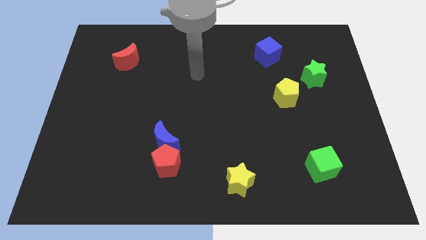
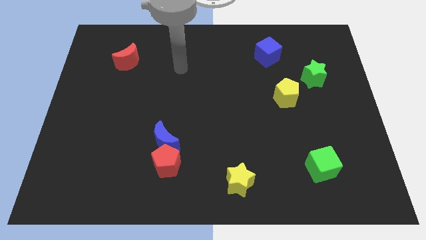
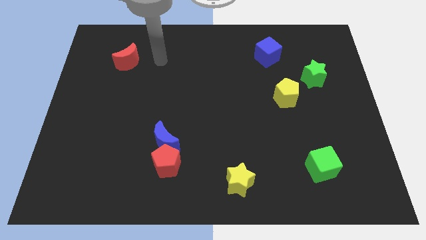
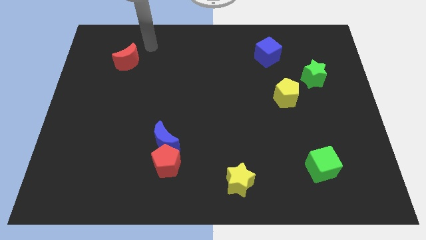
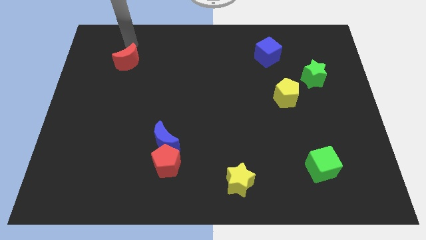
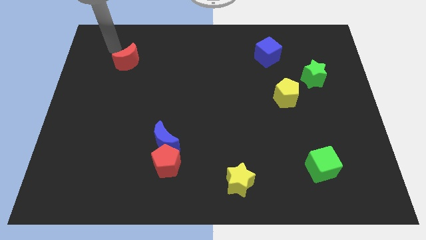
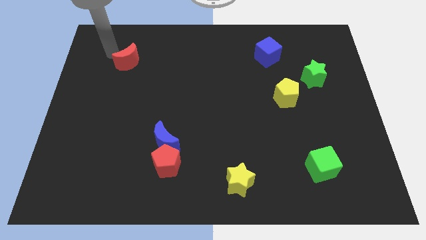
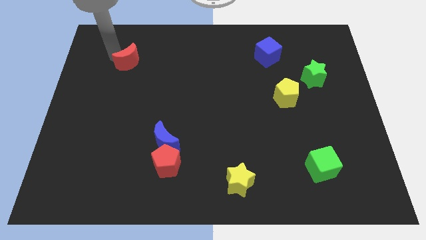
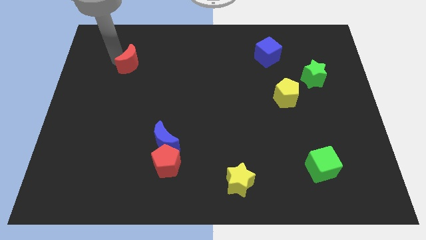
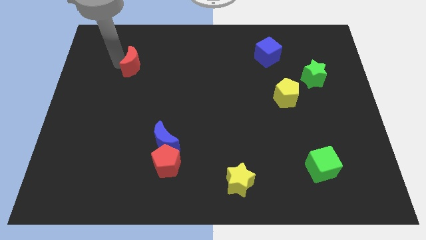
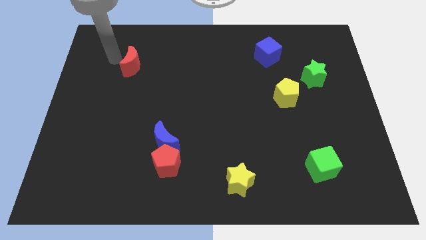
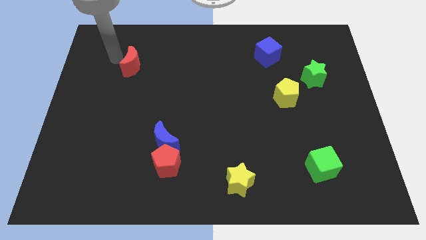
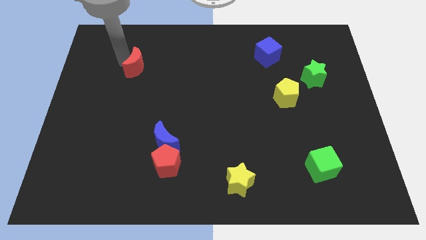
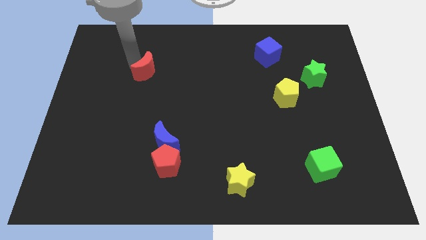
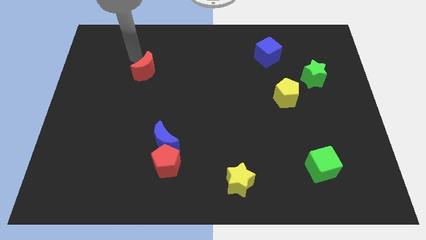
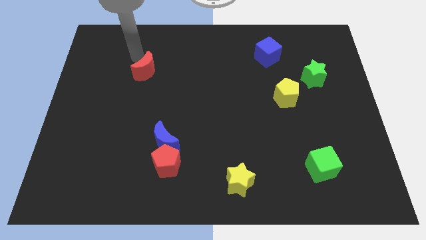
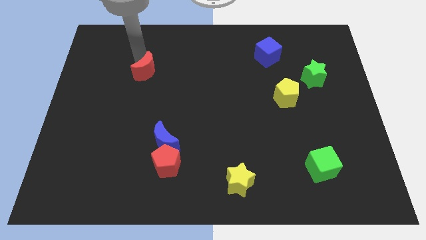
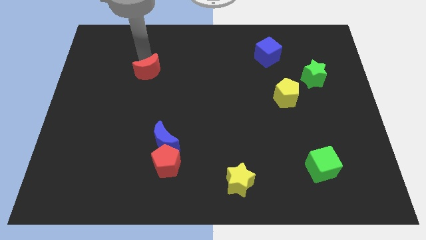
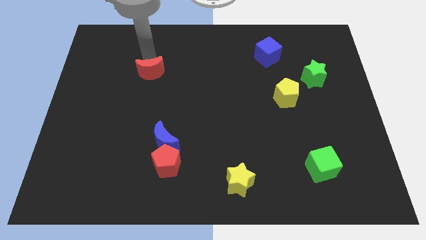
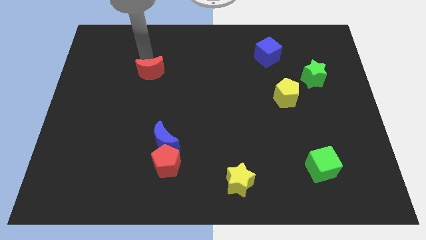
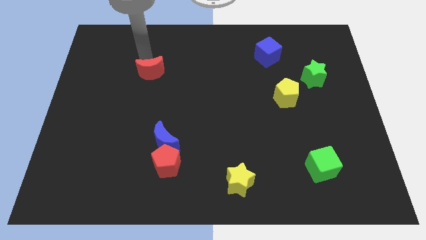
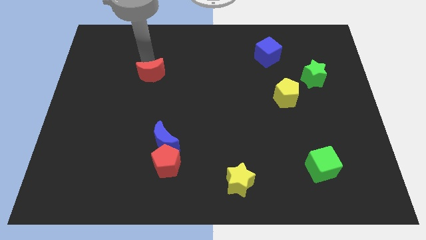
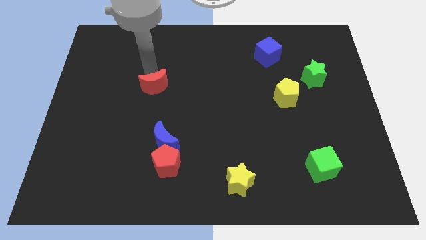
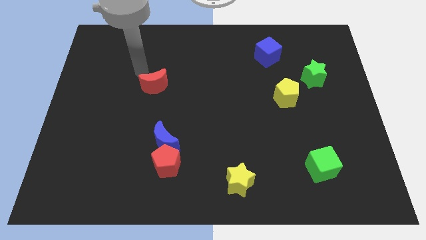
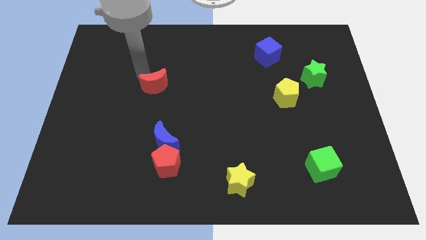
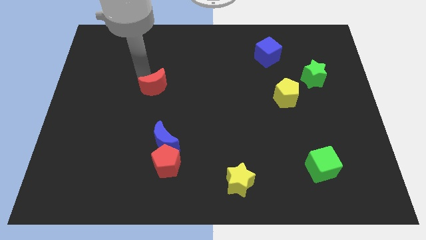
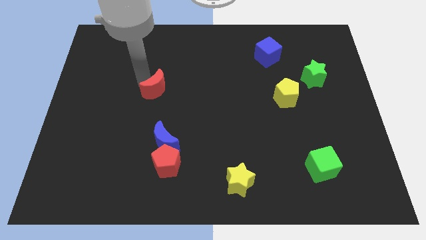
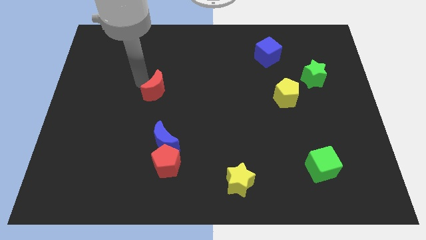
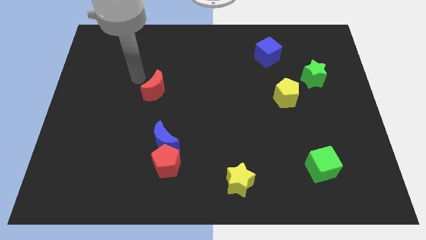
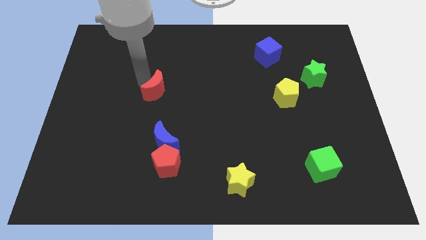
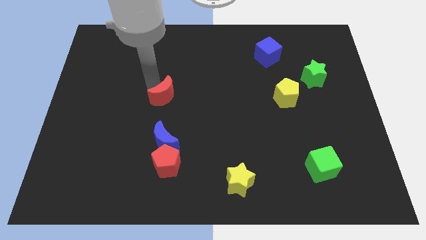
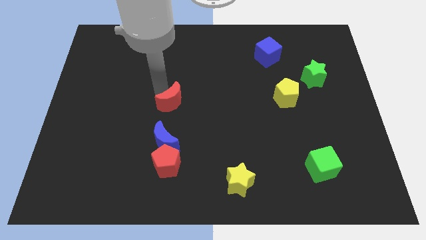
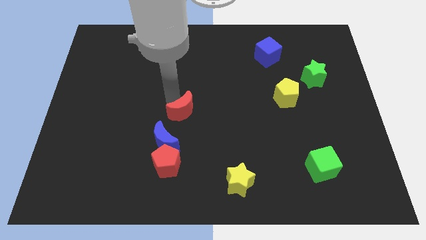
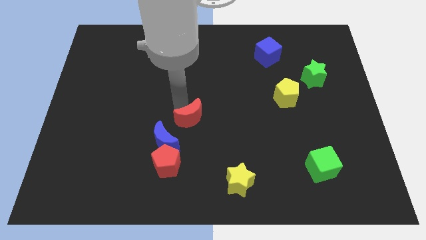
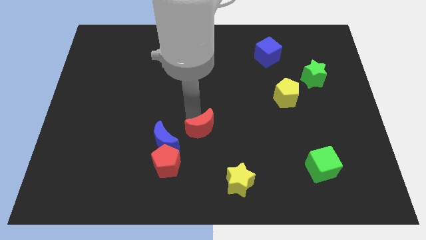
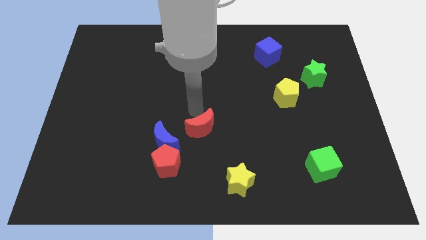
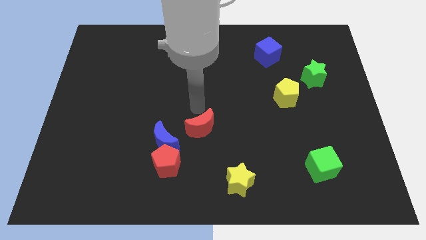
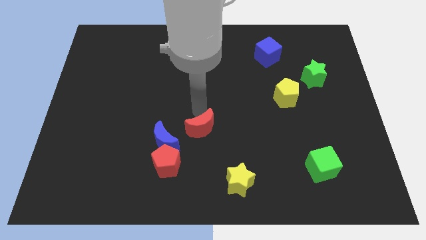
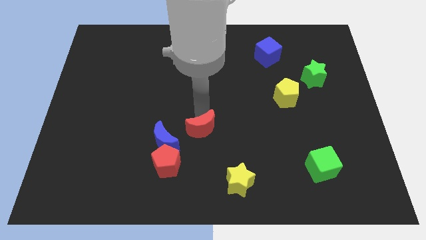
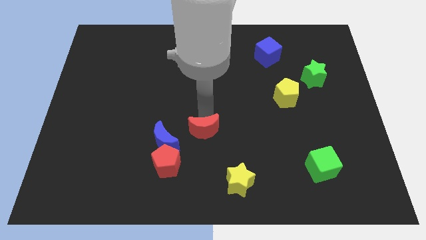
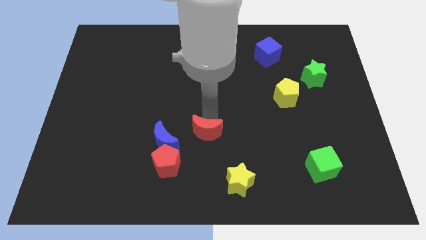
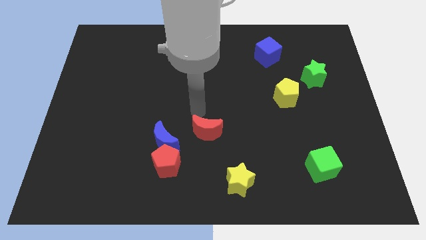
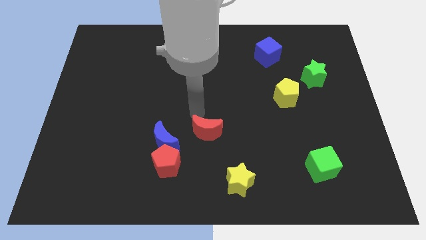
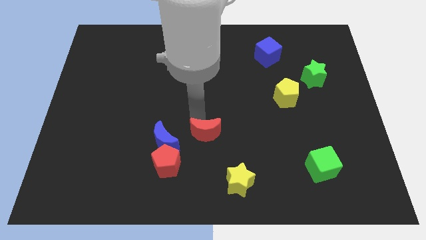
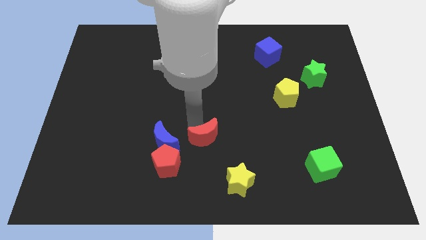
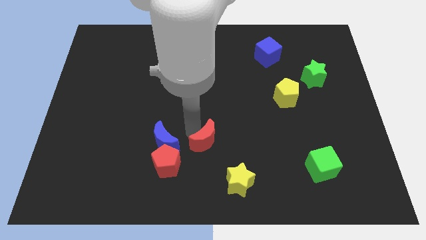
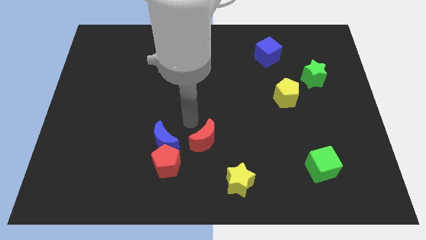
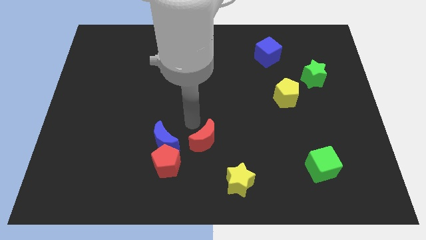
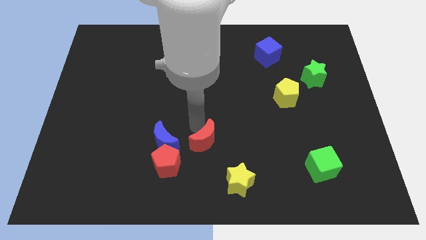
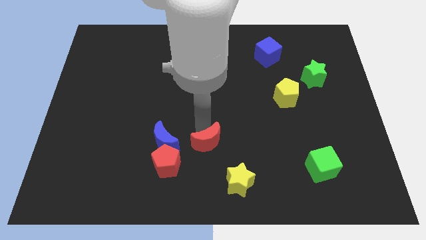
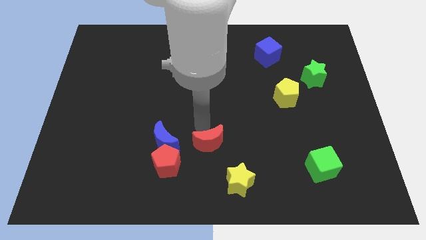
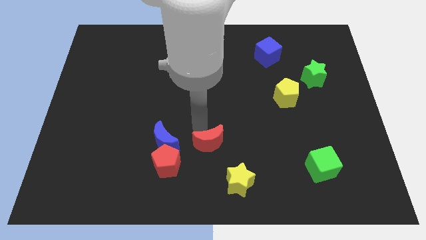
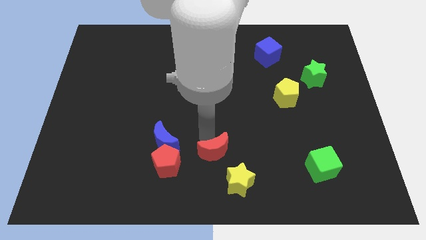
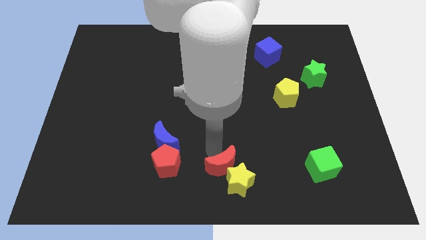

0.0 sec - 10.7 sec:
push the red moon to the yellow star

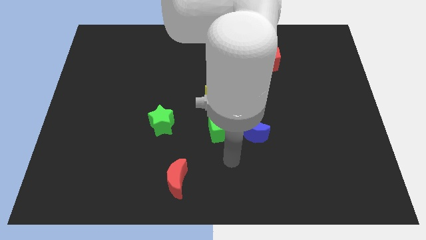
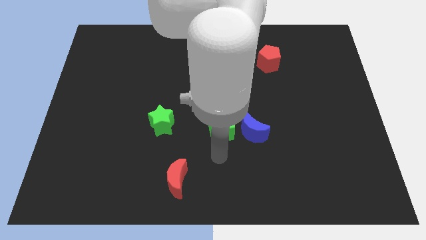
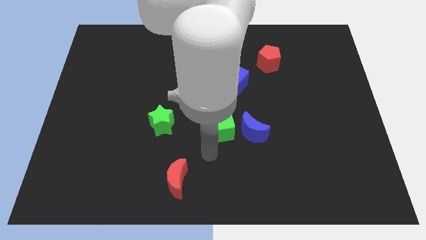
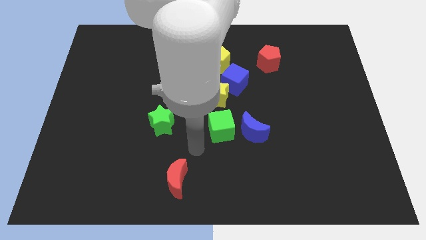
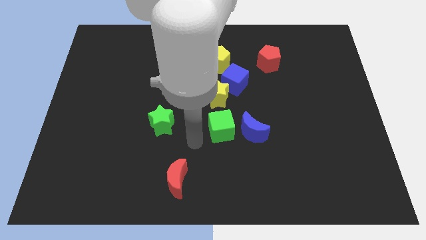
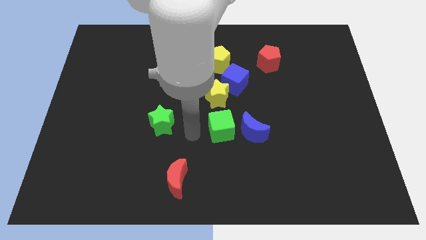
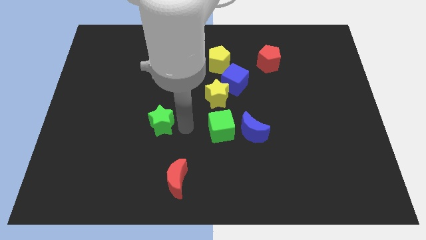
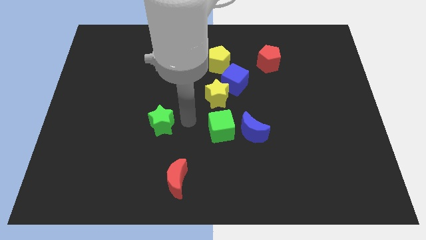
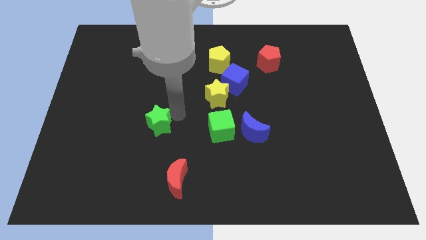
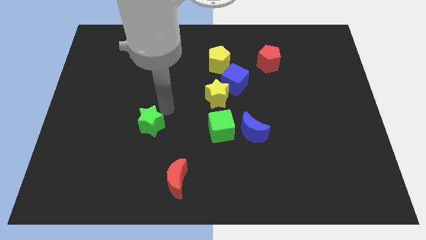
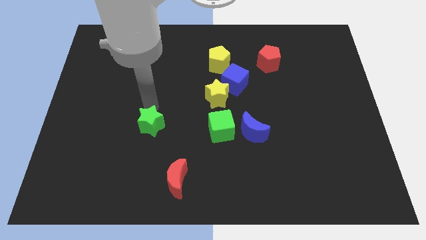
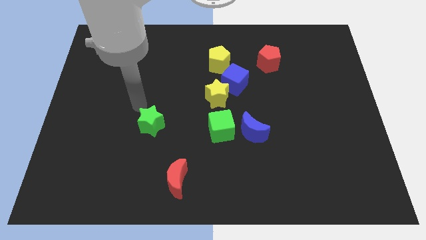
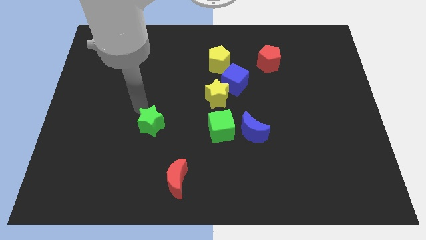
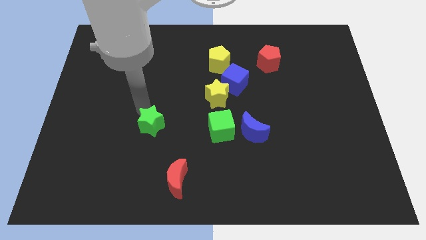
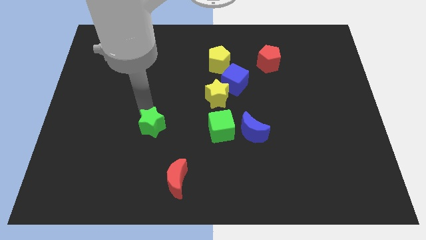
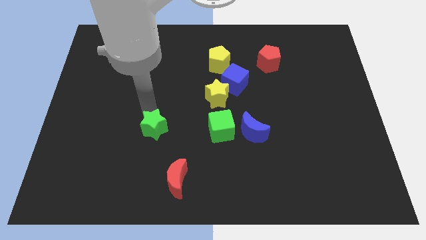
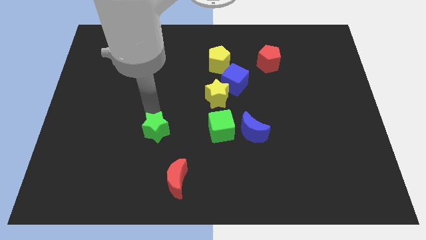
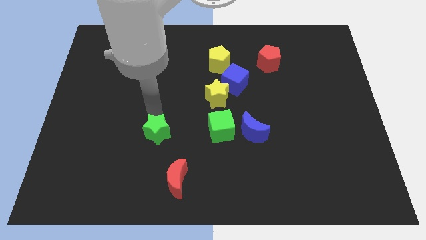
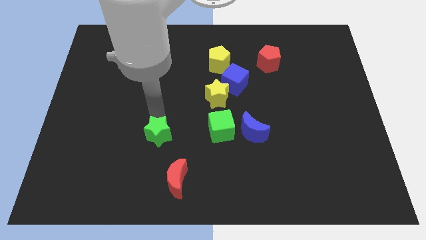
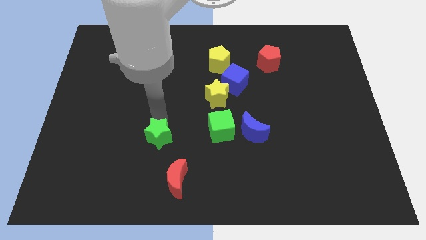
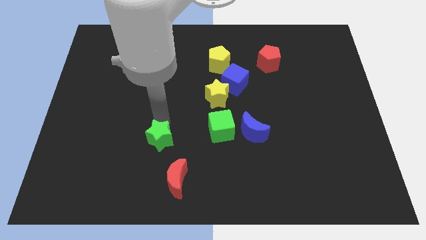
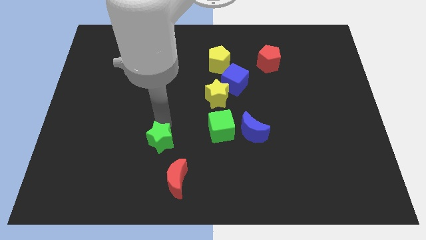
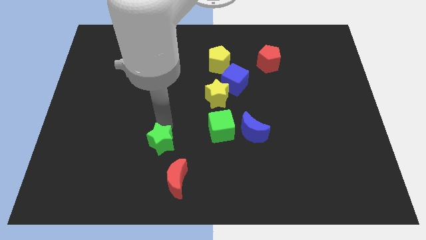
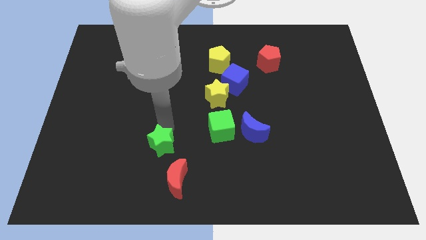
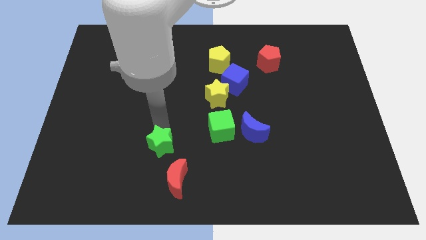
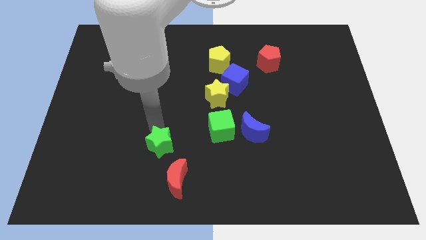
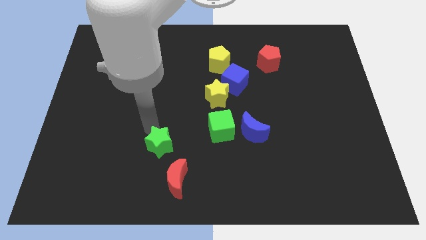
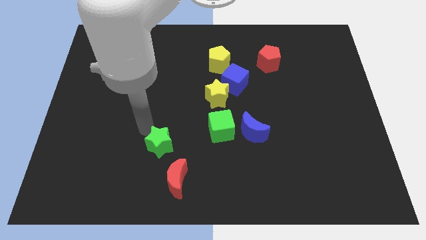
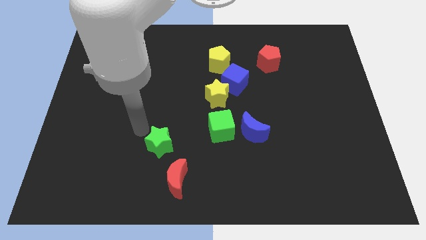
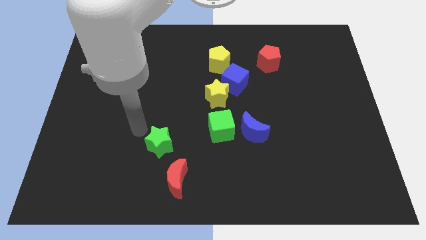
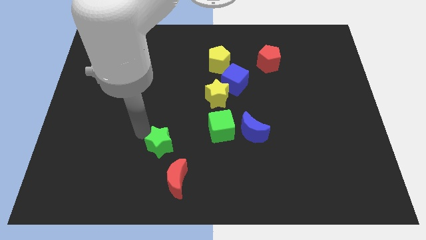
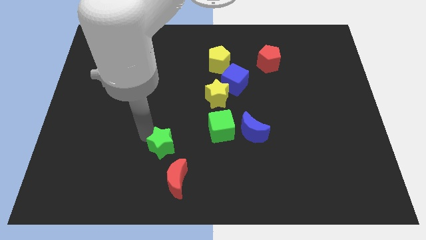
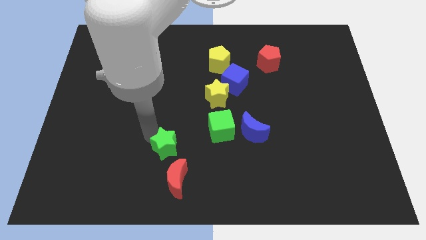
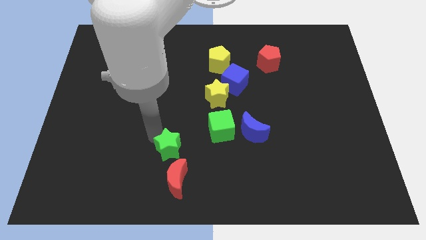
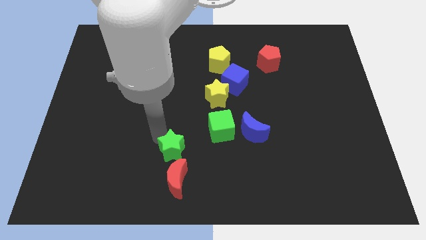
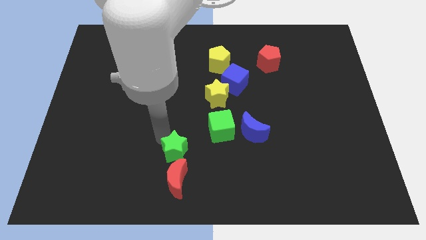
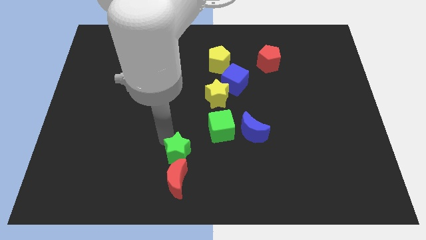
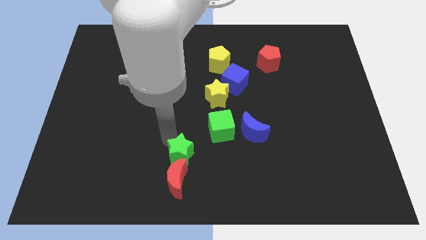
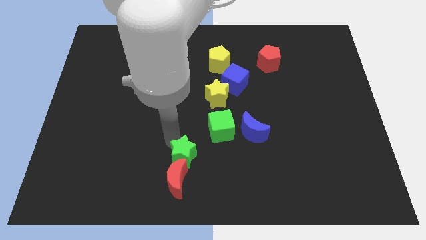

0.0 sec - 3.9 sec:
slide the green star to the red moon
